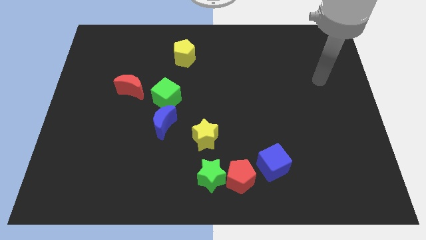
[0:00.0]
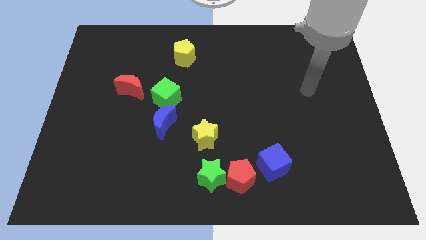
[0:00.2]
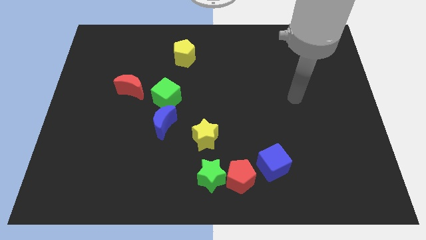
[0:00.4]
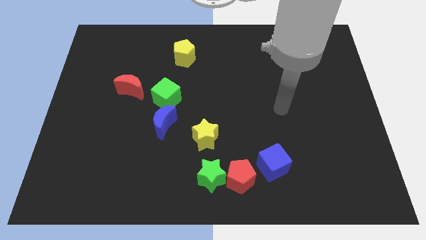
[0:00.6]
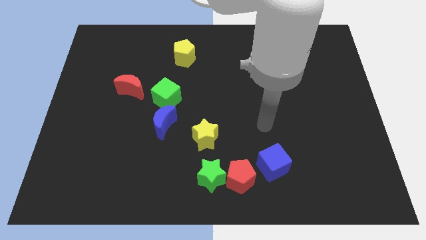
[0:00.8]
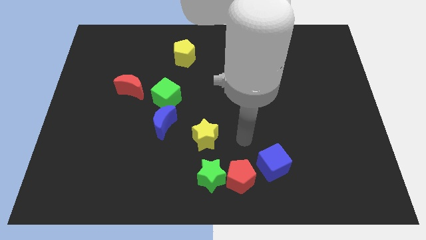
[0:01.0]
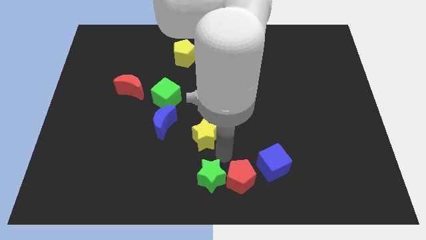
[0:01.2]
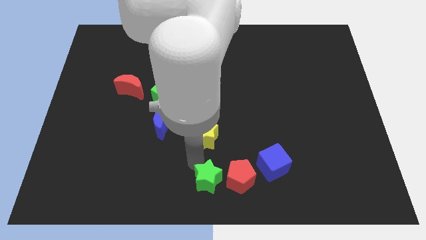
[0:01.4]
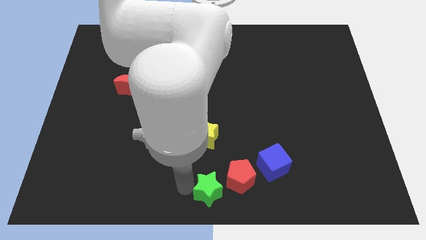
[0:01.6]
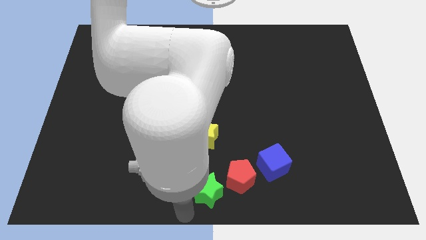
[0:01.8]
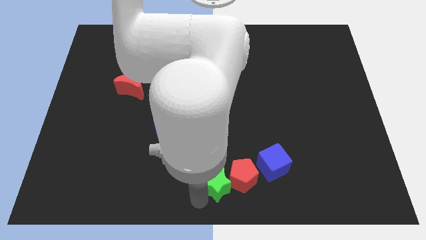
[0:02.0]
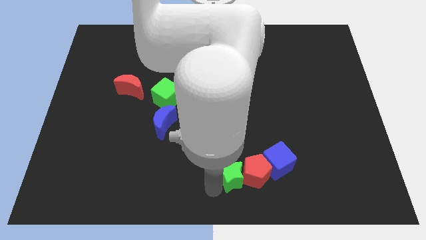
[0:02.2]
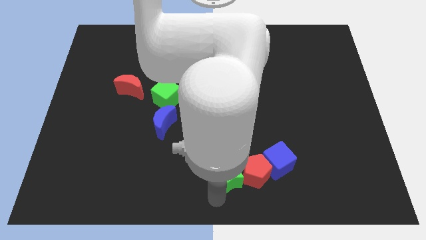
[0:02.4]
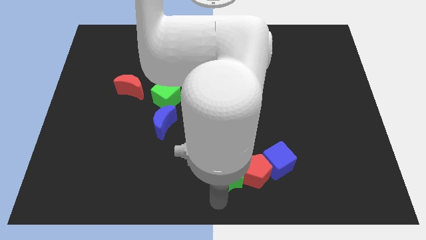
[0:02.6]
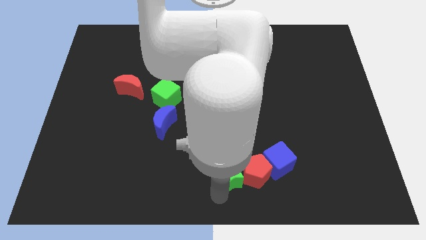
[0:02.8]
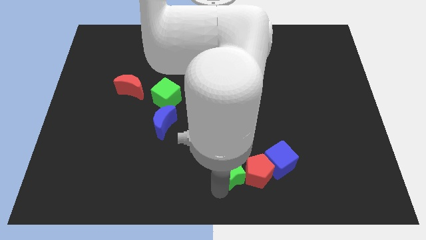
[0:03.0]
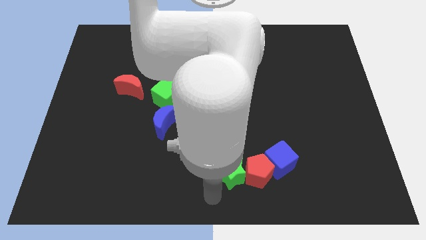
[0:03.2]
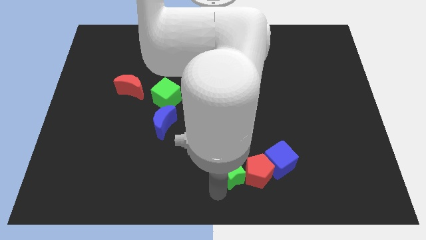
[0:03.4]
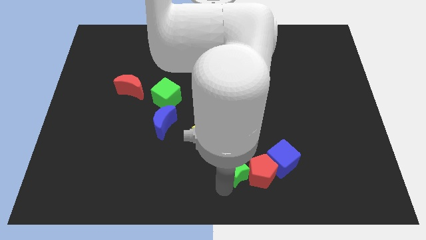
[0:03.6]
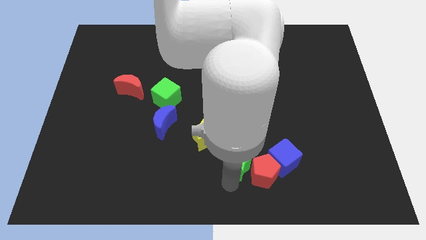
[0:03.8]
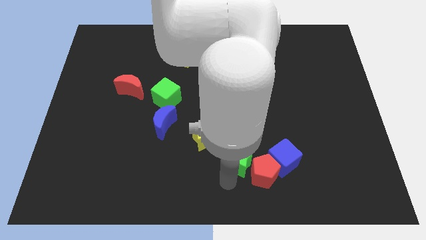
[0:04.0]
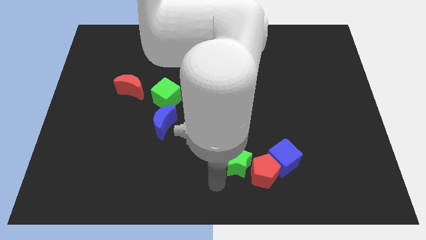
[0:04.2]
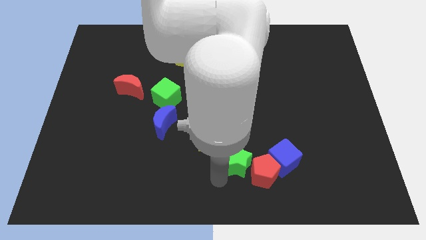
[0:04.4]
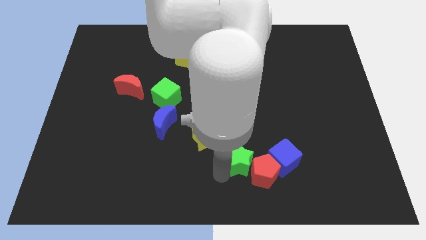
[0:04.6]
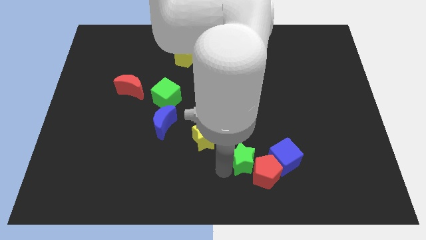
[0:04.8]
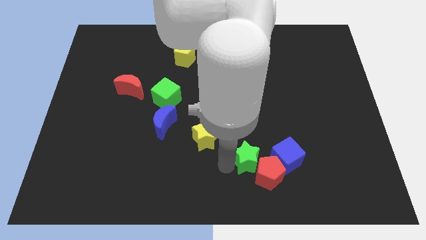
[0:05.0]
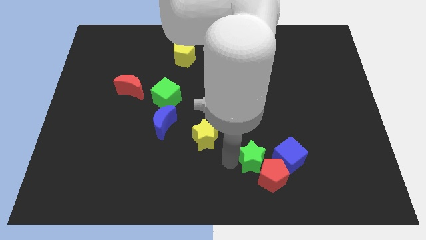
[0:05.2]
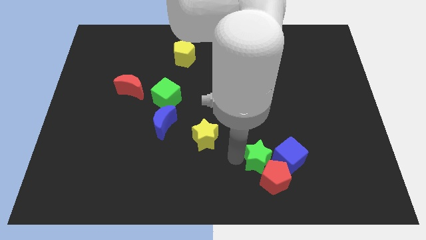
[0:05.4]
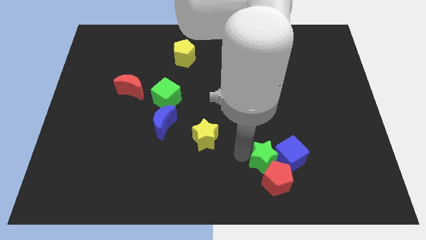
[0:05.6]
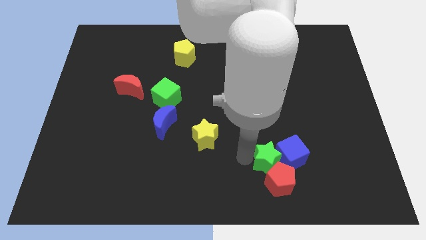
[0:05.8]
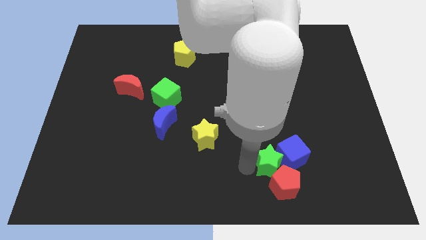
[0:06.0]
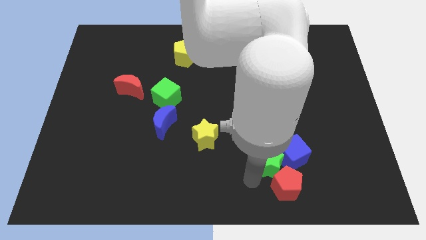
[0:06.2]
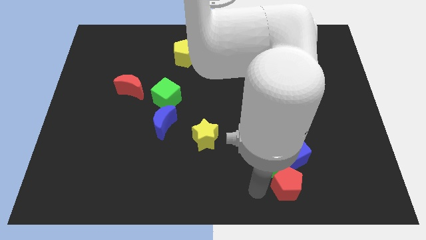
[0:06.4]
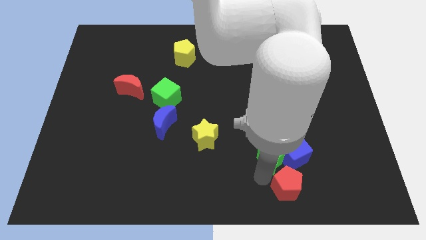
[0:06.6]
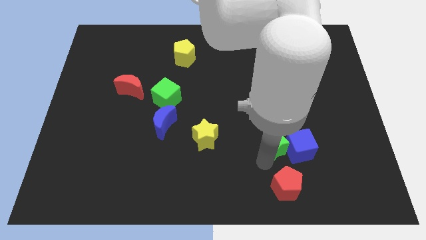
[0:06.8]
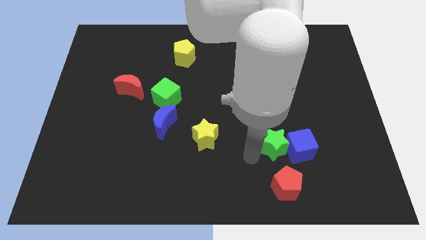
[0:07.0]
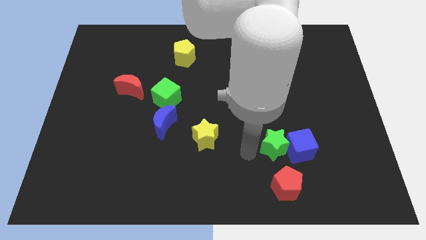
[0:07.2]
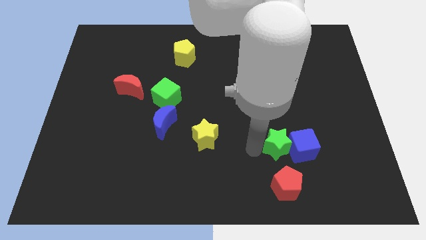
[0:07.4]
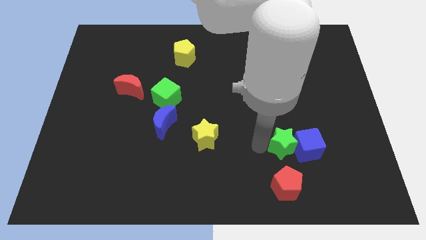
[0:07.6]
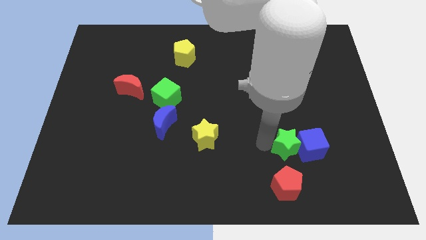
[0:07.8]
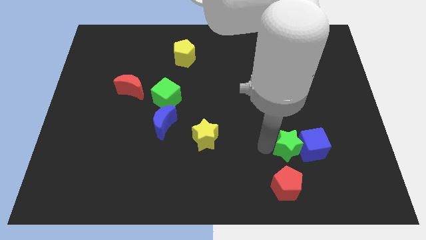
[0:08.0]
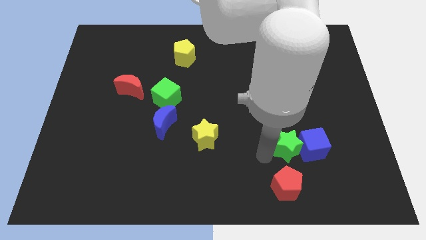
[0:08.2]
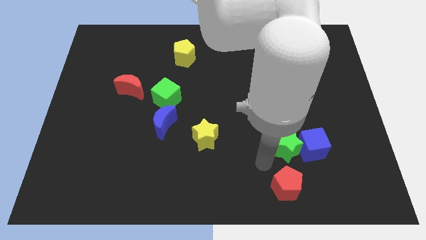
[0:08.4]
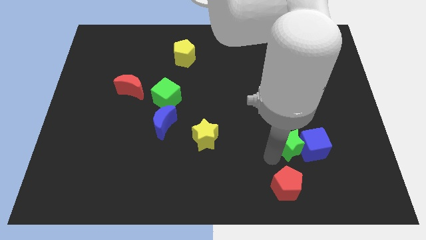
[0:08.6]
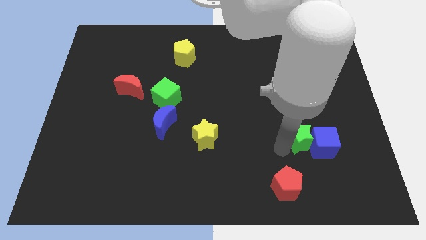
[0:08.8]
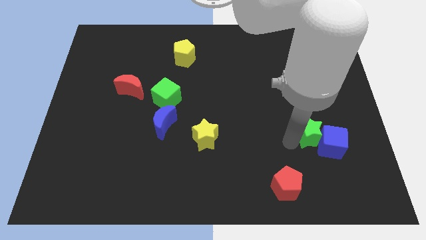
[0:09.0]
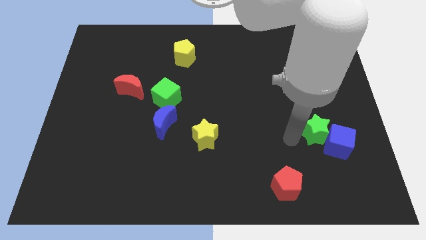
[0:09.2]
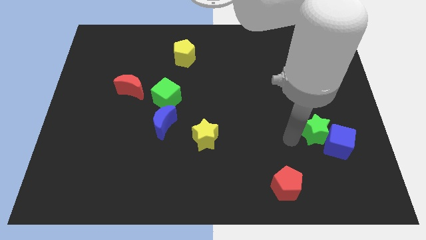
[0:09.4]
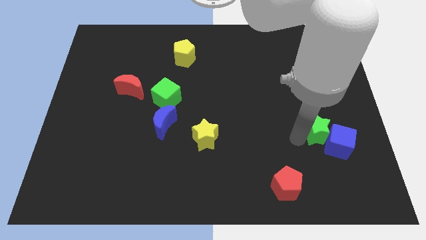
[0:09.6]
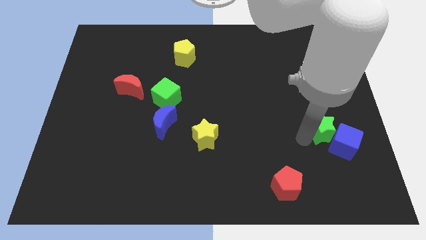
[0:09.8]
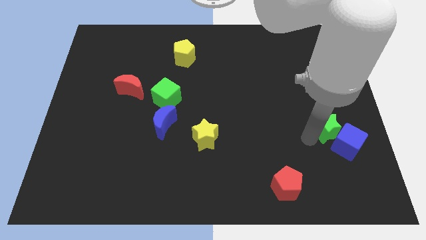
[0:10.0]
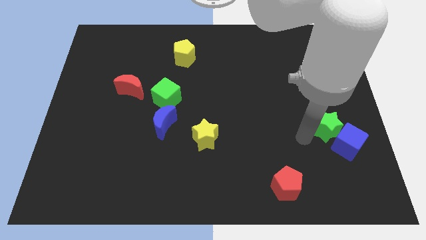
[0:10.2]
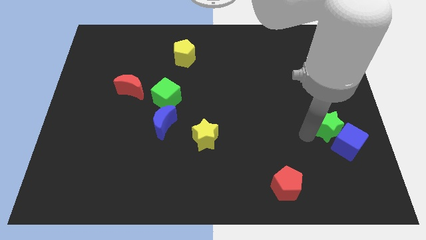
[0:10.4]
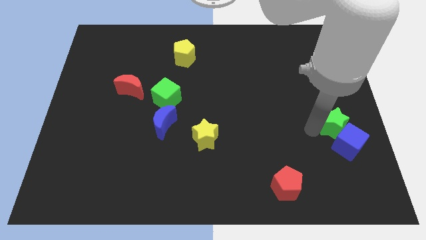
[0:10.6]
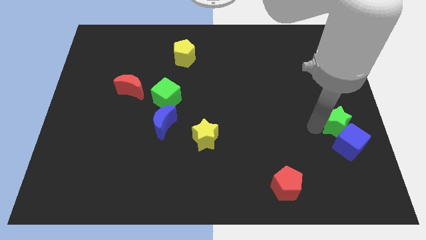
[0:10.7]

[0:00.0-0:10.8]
push the green star to the right side

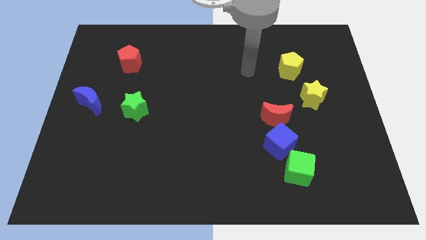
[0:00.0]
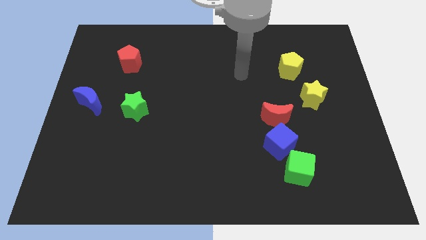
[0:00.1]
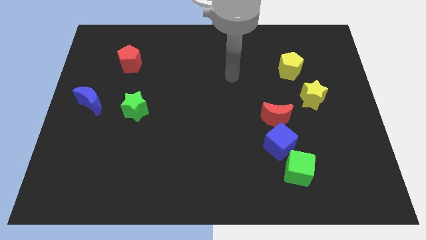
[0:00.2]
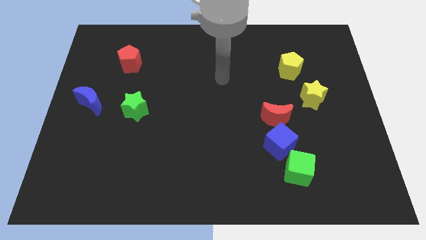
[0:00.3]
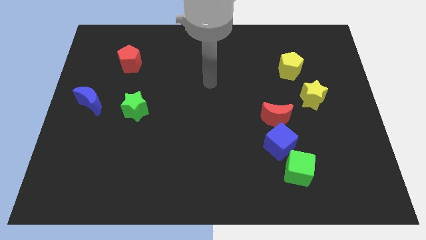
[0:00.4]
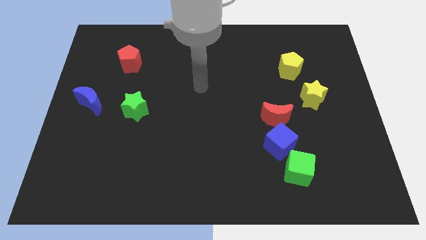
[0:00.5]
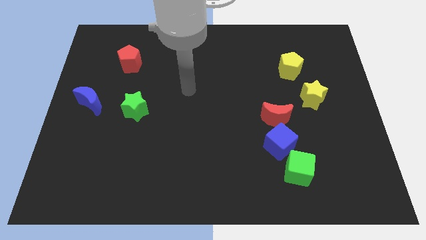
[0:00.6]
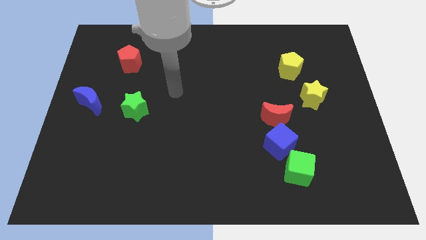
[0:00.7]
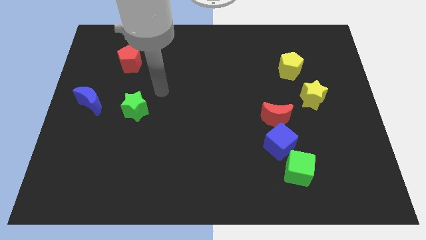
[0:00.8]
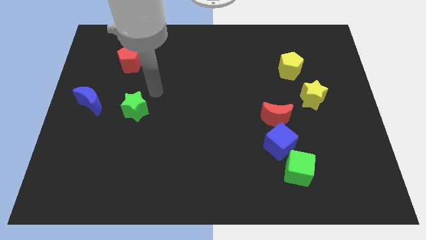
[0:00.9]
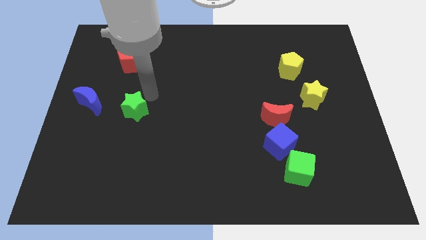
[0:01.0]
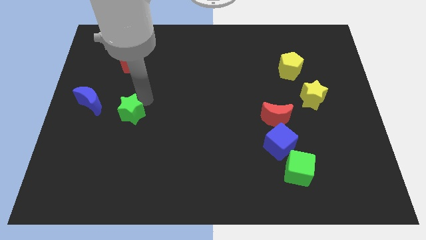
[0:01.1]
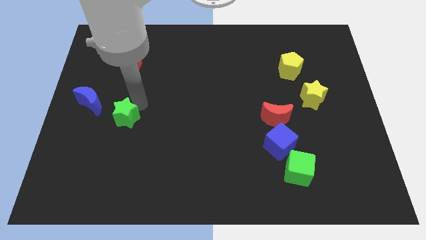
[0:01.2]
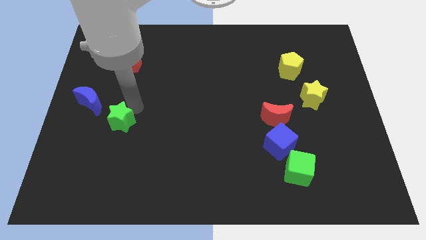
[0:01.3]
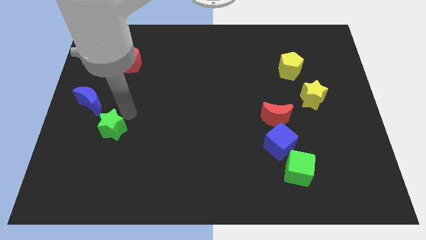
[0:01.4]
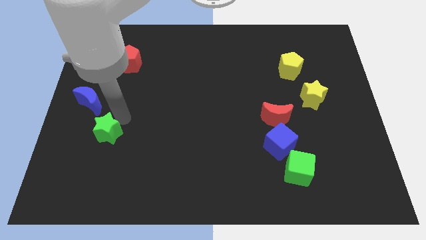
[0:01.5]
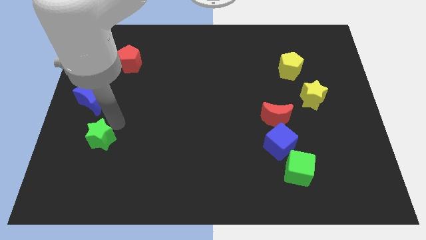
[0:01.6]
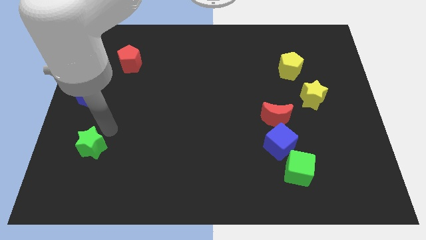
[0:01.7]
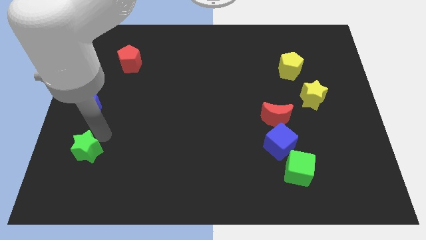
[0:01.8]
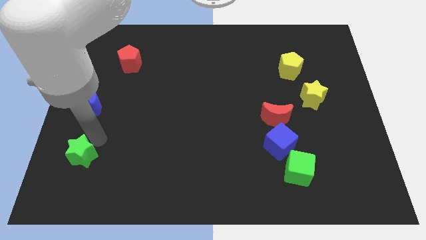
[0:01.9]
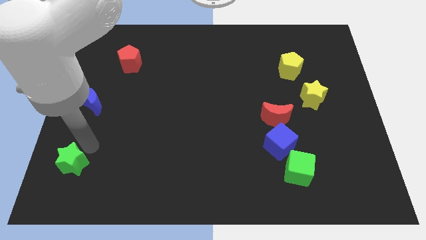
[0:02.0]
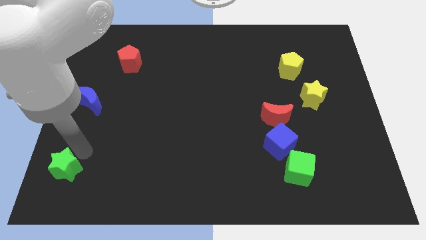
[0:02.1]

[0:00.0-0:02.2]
put the green star to the lower left corner
